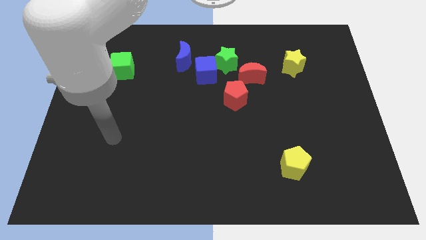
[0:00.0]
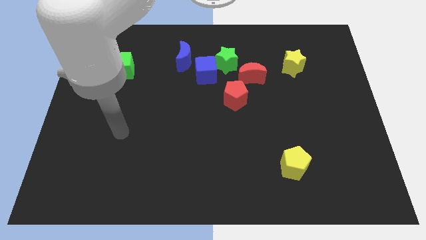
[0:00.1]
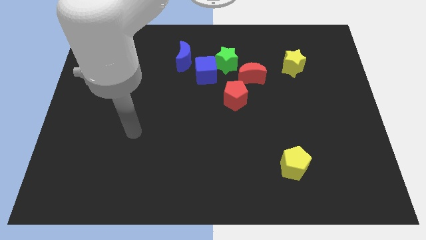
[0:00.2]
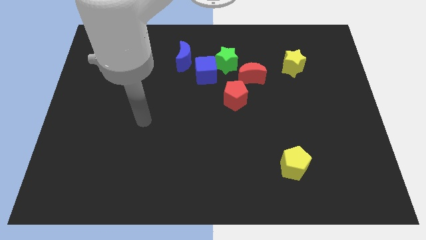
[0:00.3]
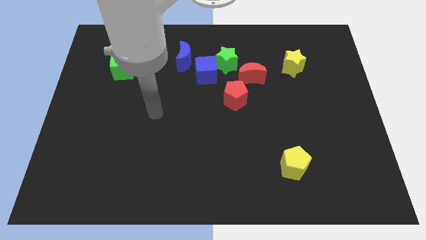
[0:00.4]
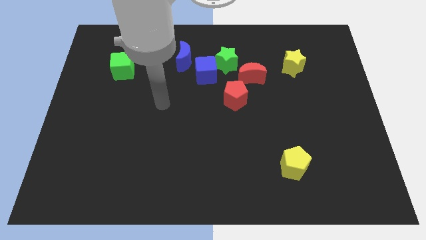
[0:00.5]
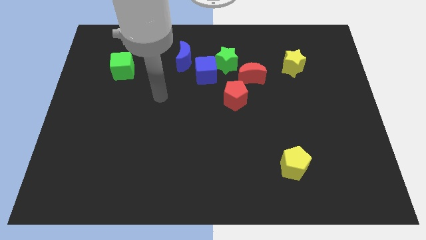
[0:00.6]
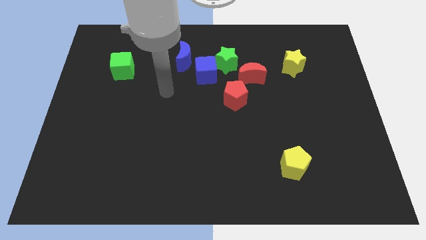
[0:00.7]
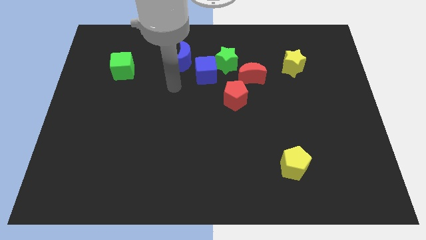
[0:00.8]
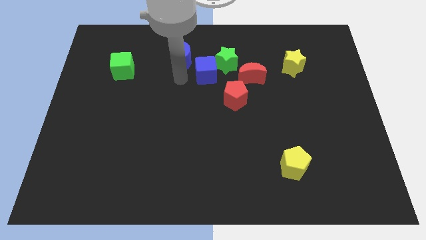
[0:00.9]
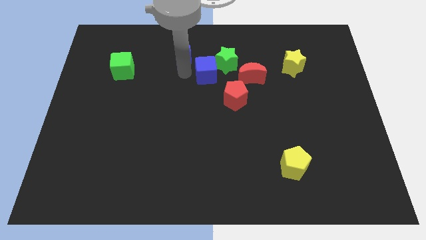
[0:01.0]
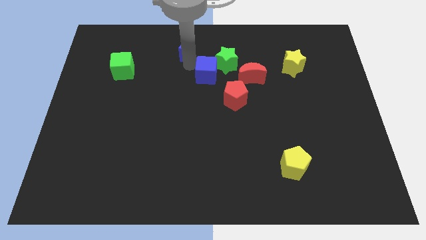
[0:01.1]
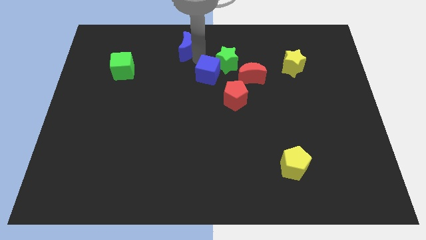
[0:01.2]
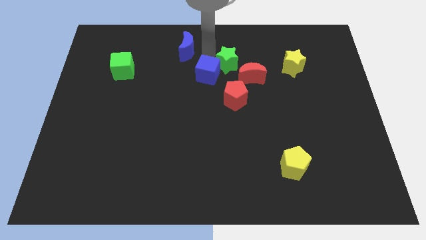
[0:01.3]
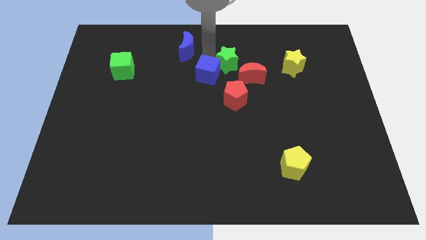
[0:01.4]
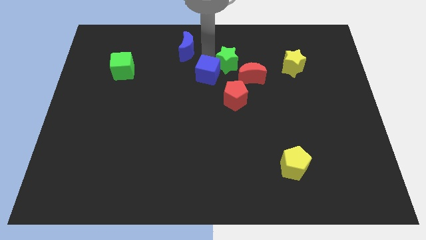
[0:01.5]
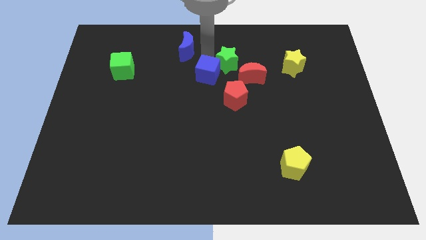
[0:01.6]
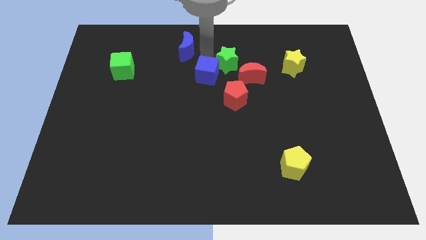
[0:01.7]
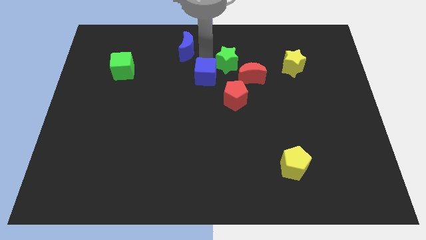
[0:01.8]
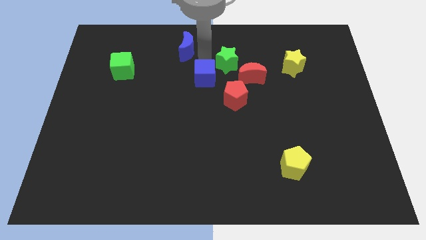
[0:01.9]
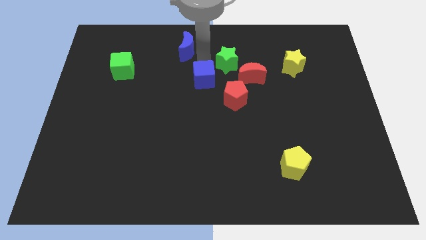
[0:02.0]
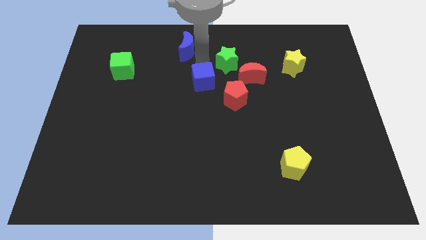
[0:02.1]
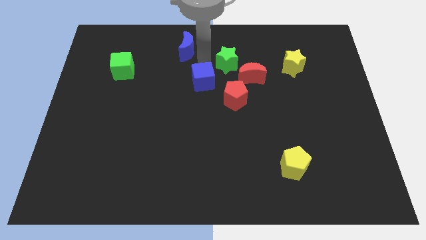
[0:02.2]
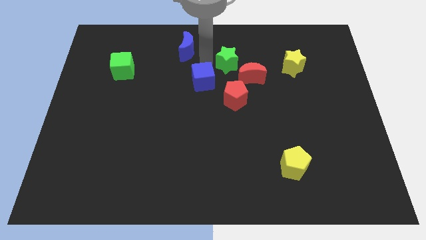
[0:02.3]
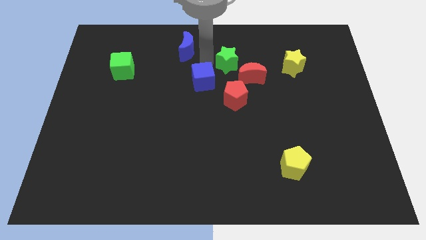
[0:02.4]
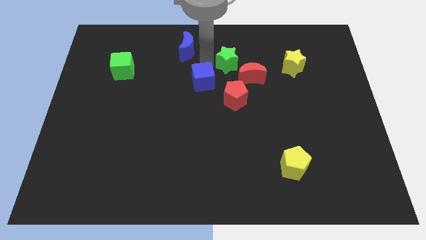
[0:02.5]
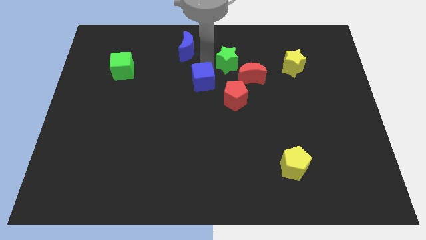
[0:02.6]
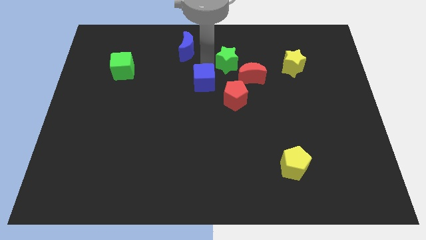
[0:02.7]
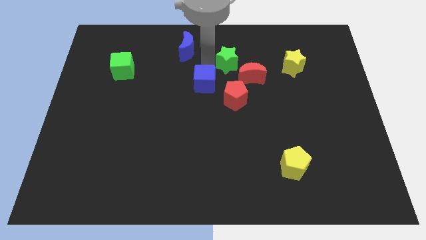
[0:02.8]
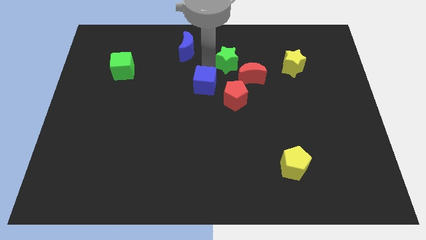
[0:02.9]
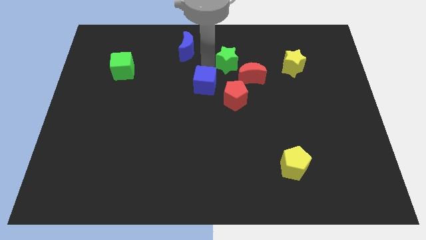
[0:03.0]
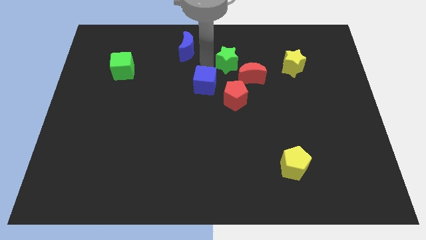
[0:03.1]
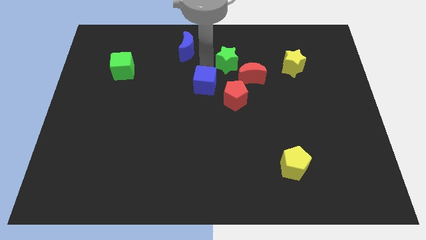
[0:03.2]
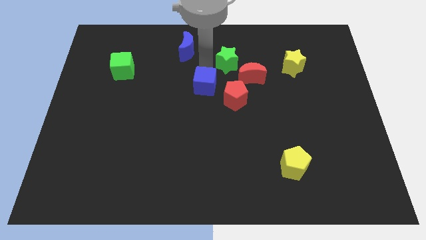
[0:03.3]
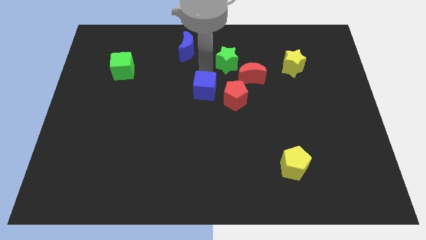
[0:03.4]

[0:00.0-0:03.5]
pull the blue cube apart from the green star and blue moon

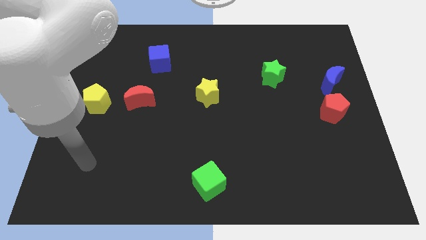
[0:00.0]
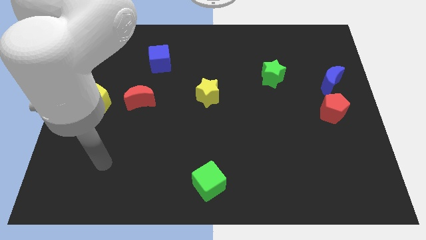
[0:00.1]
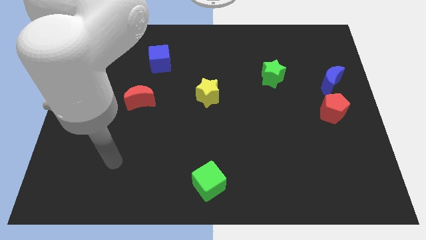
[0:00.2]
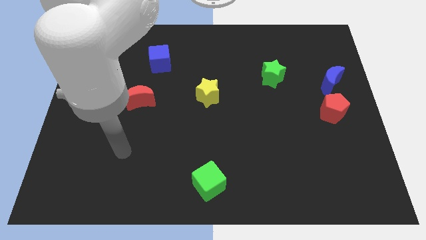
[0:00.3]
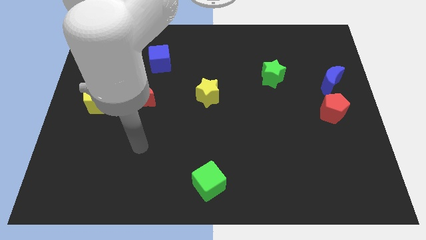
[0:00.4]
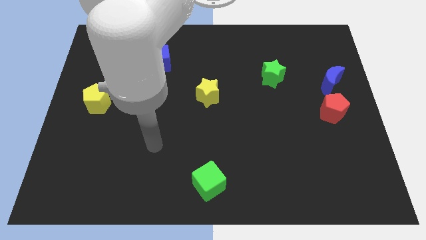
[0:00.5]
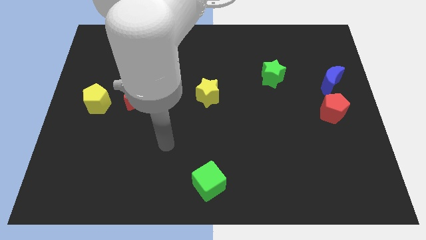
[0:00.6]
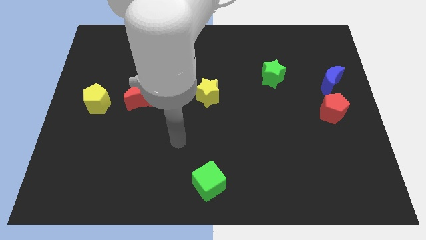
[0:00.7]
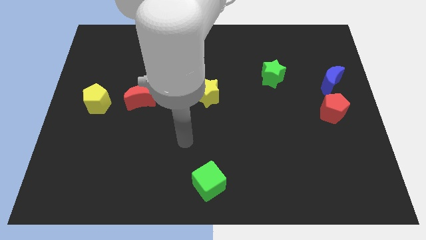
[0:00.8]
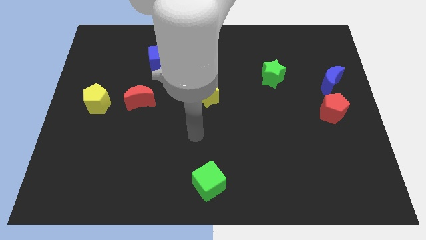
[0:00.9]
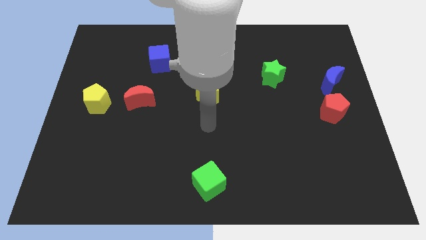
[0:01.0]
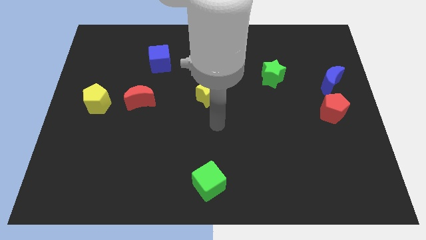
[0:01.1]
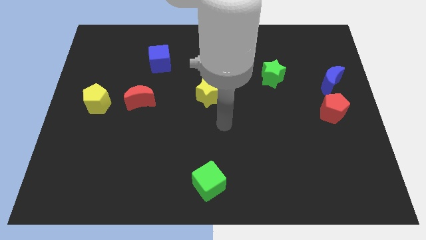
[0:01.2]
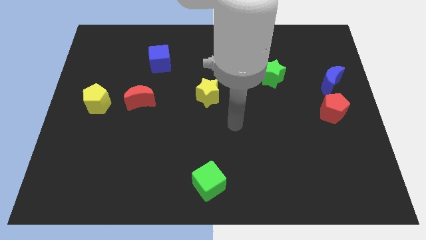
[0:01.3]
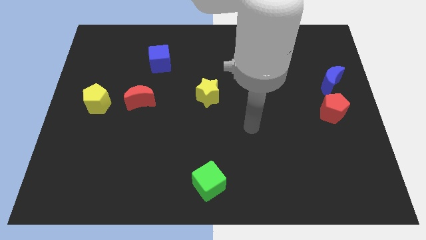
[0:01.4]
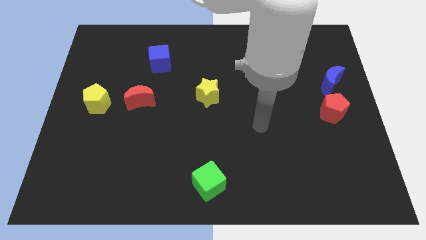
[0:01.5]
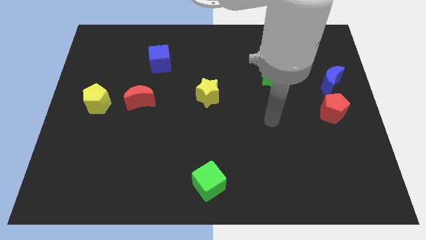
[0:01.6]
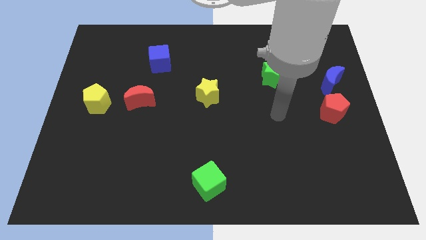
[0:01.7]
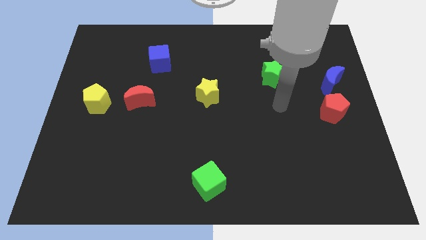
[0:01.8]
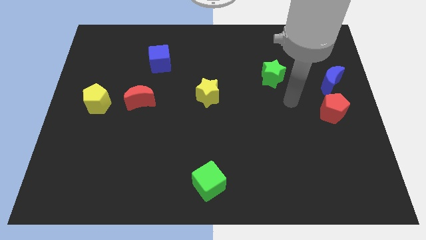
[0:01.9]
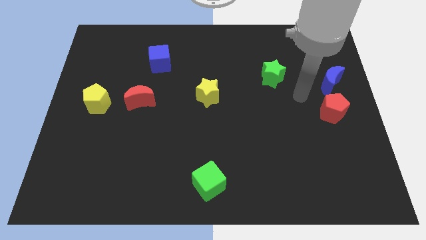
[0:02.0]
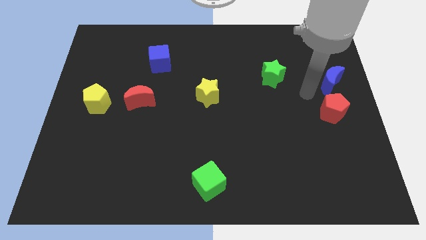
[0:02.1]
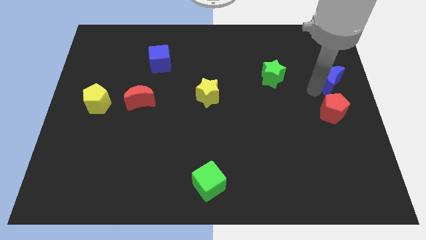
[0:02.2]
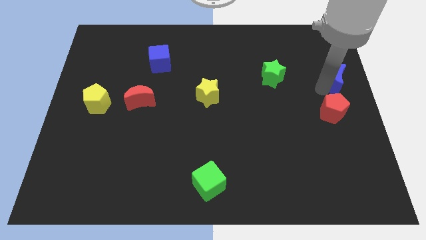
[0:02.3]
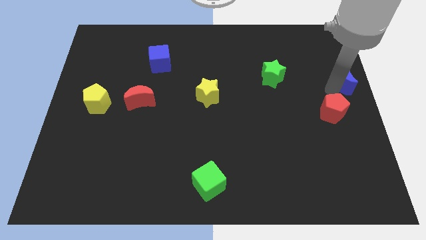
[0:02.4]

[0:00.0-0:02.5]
pull the red pentagon apart from the blue moon

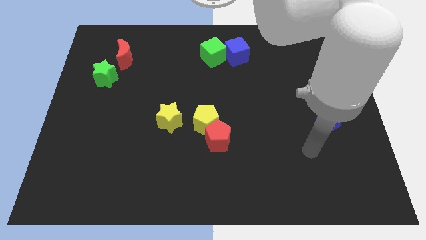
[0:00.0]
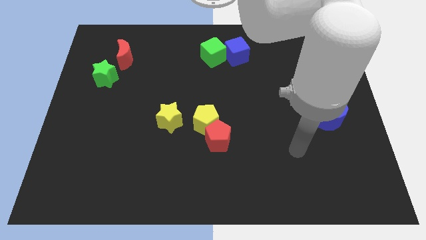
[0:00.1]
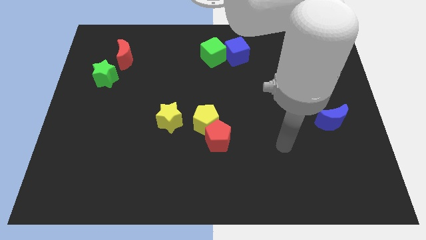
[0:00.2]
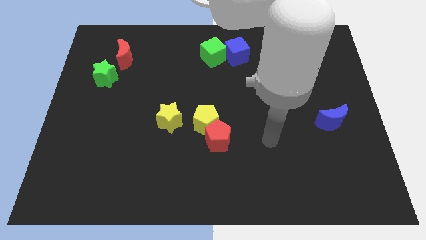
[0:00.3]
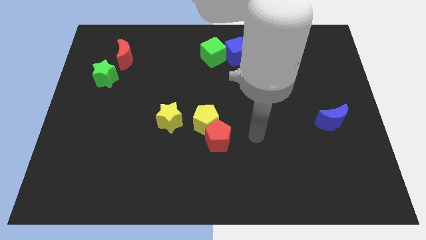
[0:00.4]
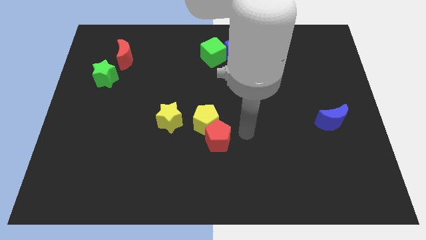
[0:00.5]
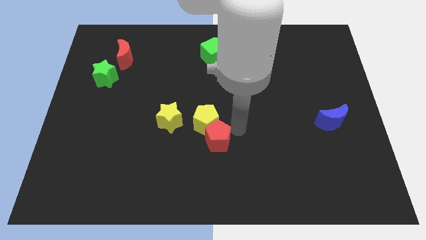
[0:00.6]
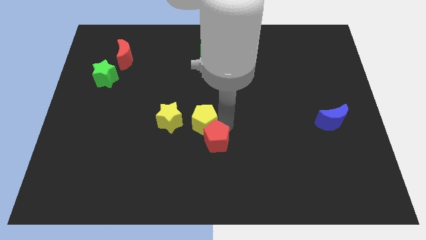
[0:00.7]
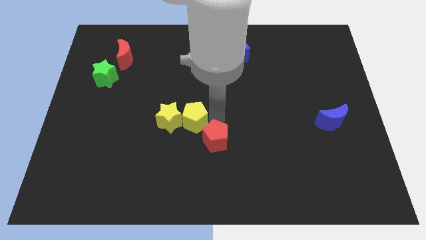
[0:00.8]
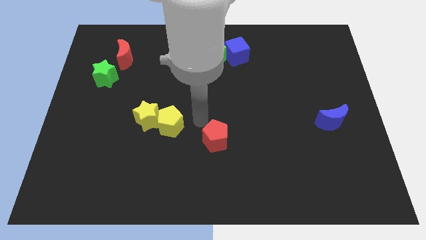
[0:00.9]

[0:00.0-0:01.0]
separate the red pentagon from the yellow pentagon

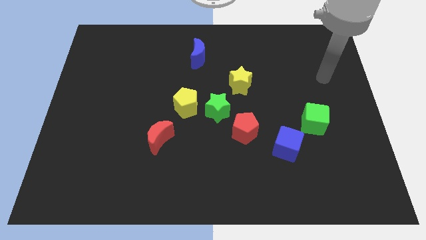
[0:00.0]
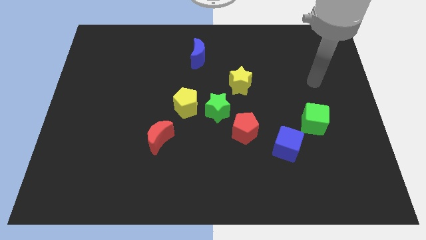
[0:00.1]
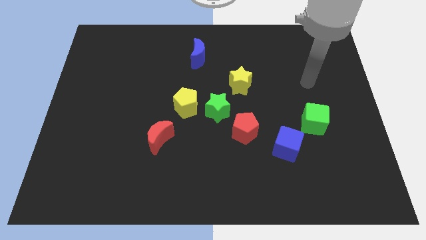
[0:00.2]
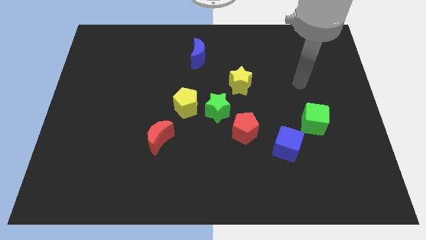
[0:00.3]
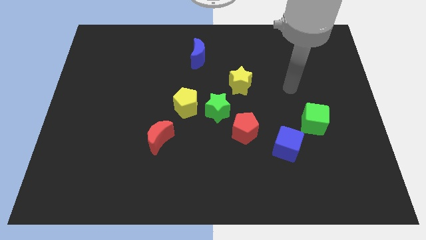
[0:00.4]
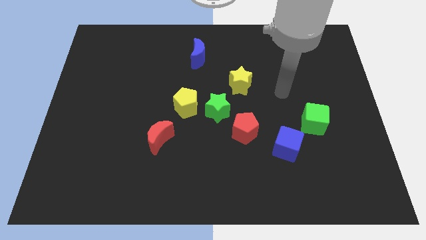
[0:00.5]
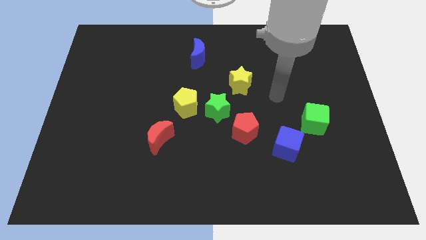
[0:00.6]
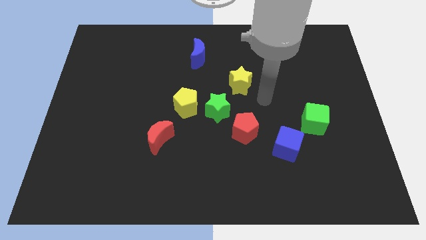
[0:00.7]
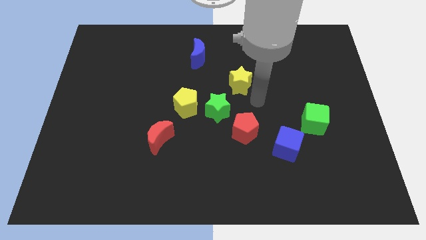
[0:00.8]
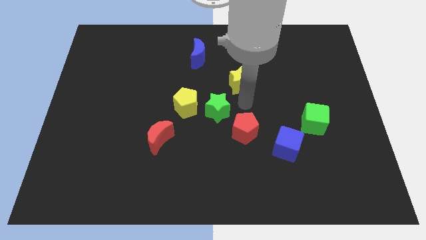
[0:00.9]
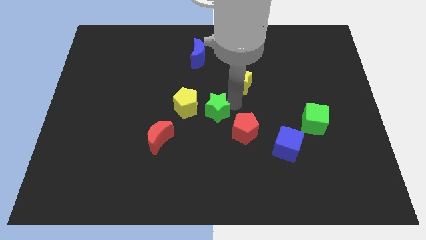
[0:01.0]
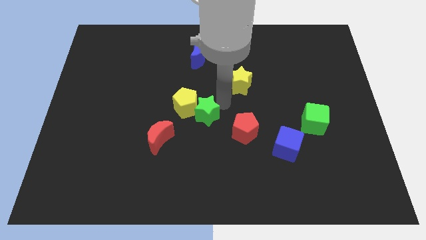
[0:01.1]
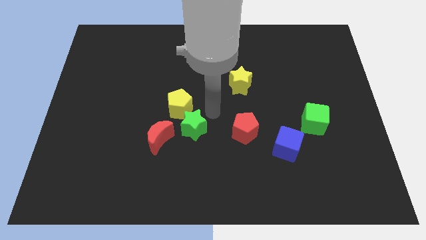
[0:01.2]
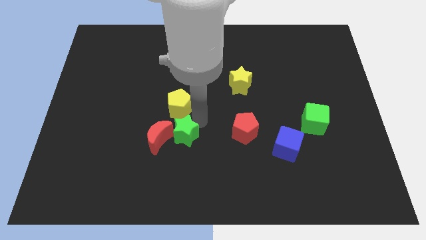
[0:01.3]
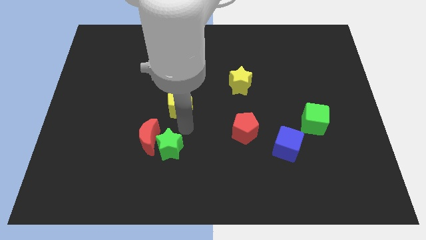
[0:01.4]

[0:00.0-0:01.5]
separate the yellow pentagon from the green star

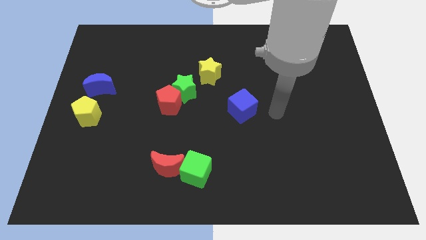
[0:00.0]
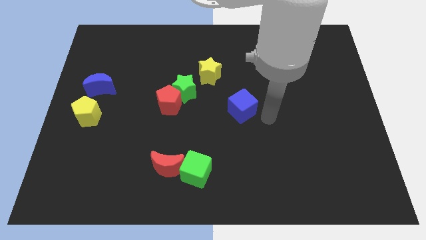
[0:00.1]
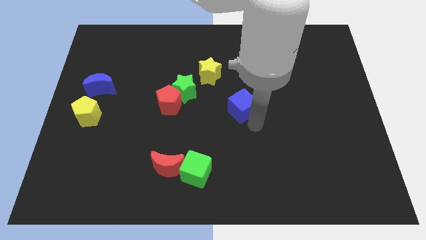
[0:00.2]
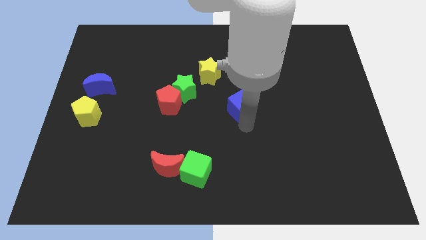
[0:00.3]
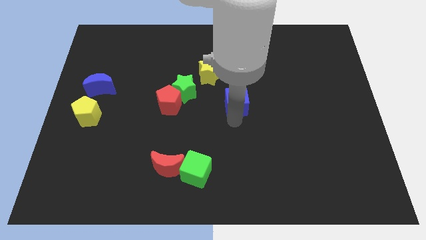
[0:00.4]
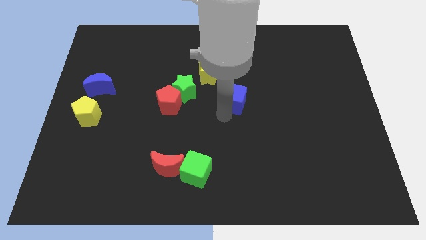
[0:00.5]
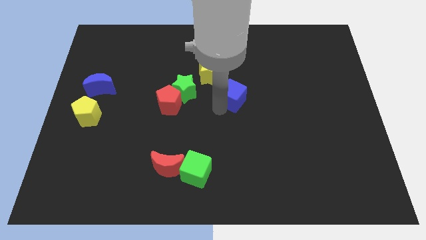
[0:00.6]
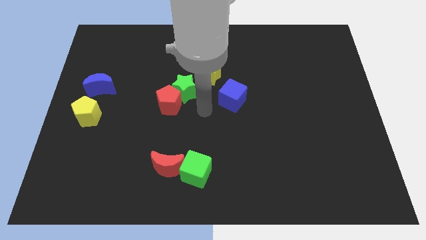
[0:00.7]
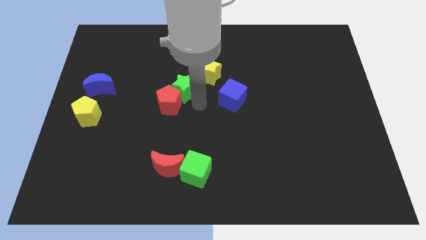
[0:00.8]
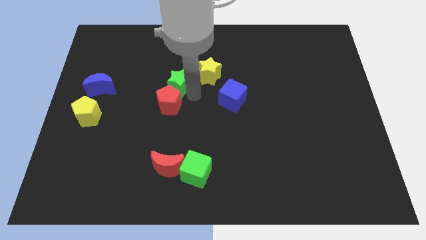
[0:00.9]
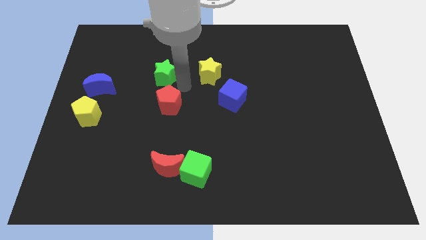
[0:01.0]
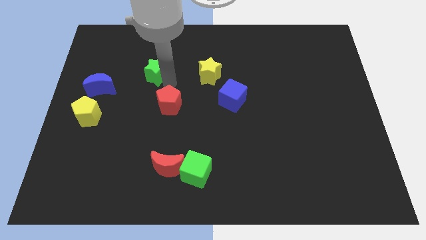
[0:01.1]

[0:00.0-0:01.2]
separate the red pentagon from the green star
